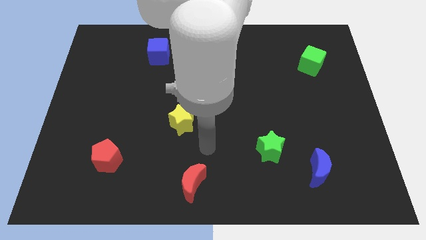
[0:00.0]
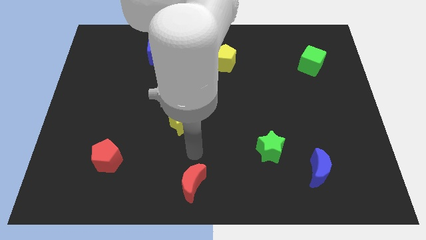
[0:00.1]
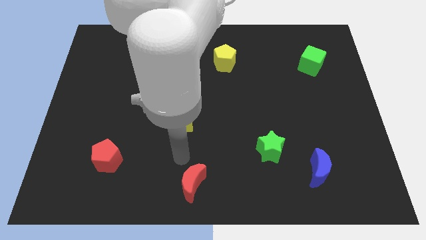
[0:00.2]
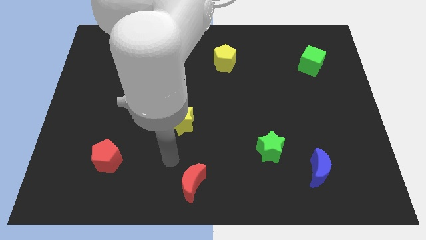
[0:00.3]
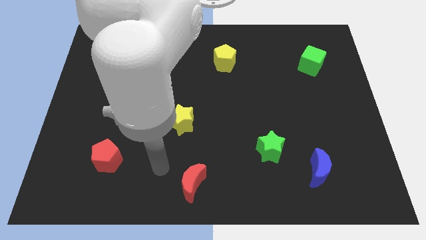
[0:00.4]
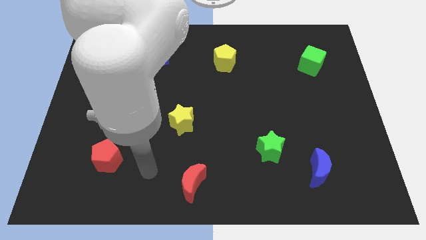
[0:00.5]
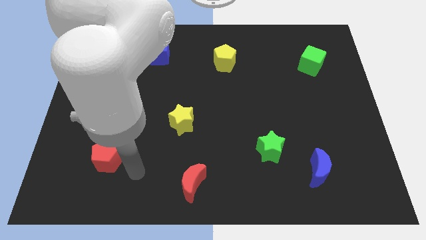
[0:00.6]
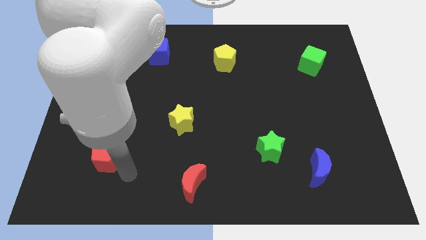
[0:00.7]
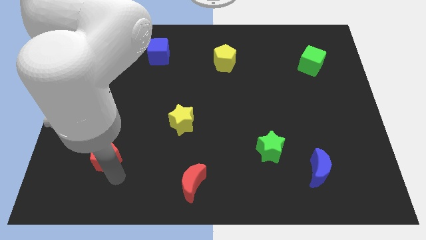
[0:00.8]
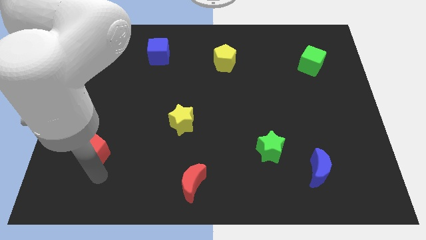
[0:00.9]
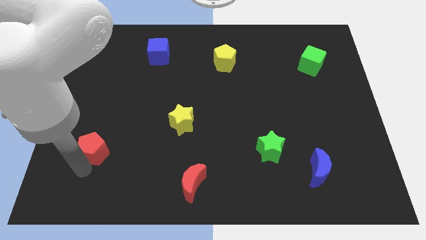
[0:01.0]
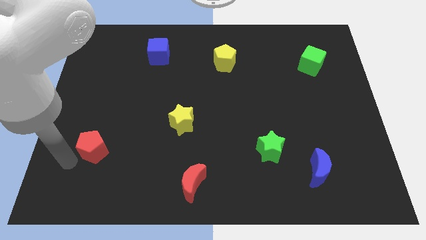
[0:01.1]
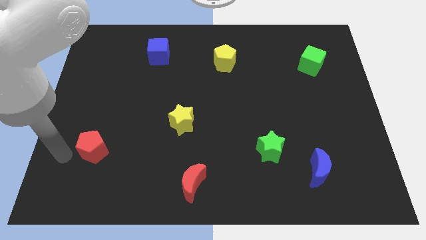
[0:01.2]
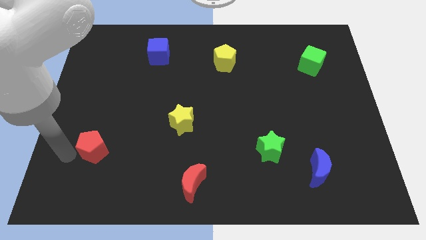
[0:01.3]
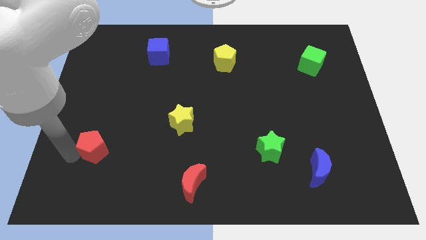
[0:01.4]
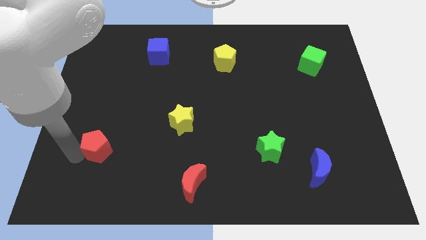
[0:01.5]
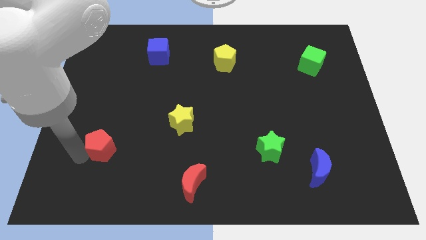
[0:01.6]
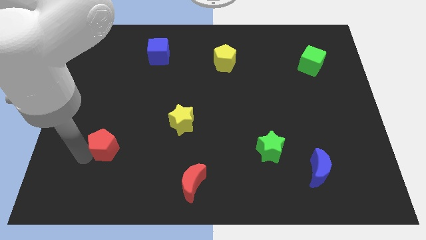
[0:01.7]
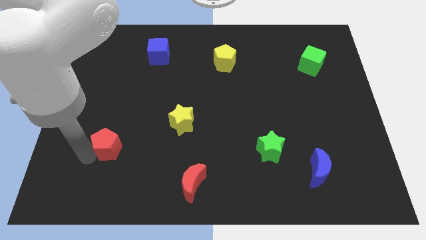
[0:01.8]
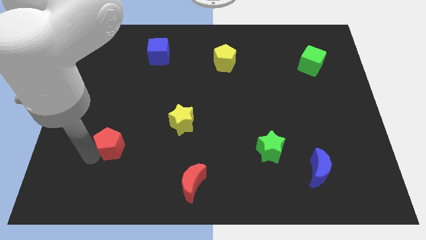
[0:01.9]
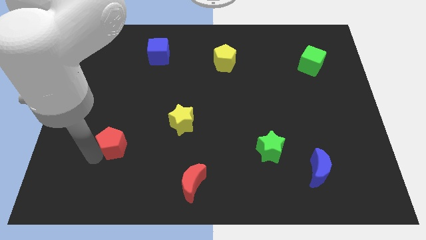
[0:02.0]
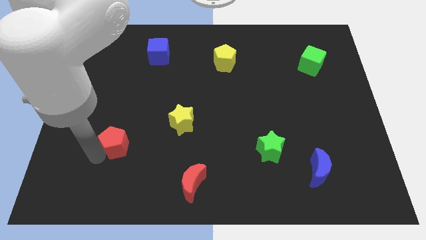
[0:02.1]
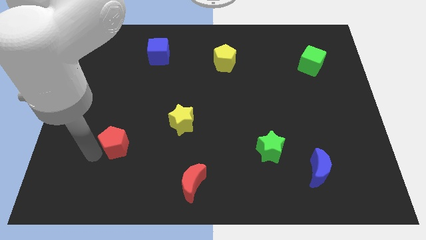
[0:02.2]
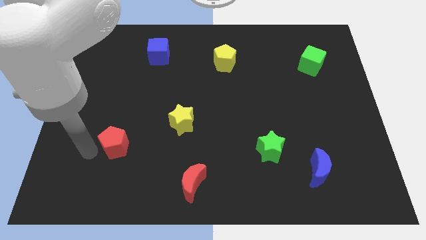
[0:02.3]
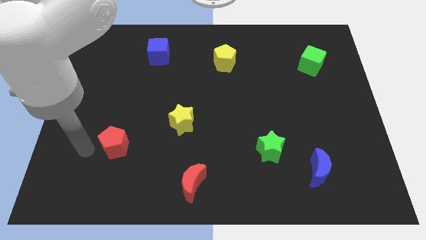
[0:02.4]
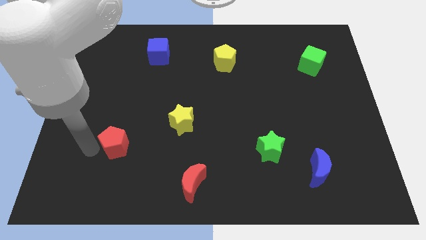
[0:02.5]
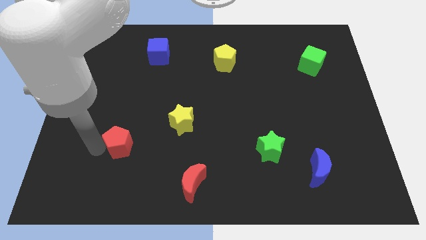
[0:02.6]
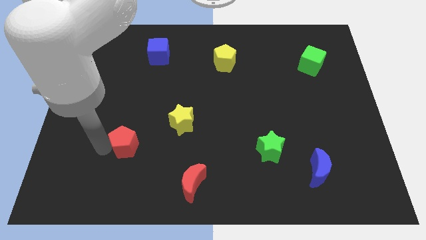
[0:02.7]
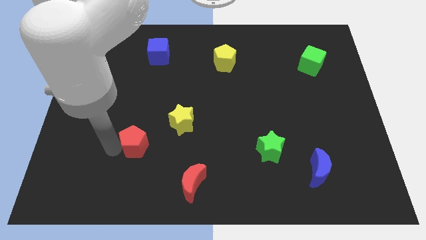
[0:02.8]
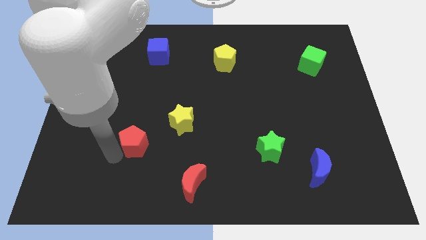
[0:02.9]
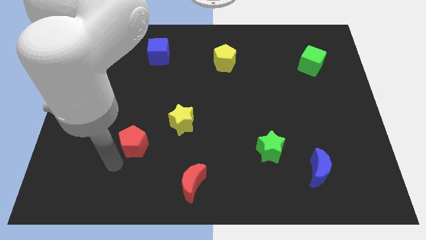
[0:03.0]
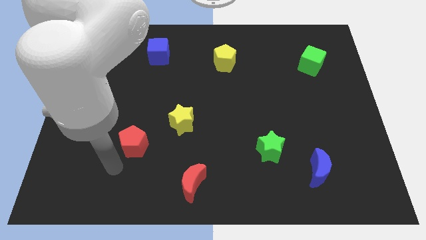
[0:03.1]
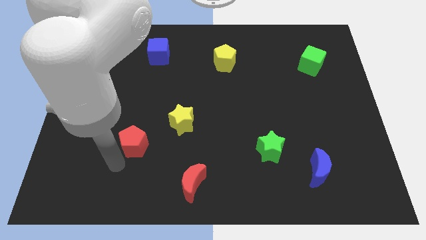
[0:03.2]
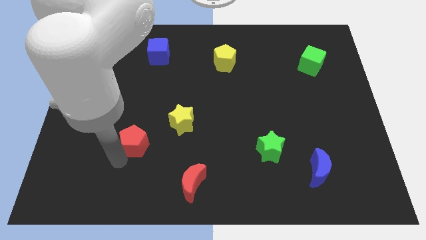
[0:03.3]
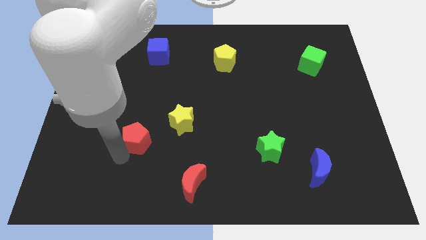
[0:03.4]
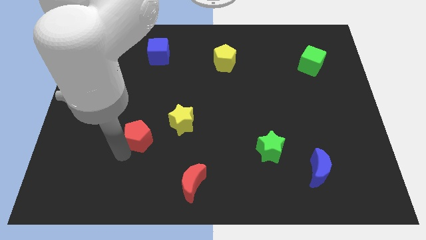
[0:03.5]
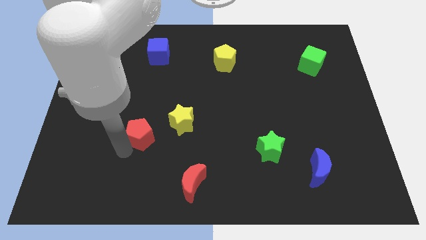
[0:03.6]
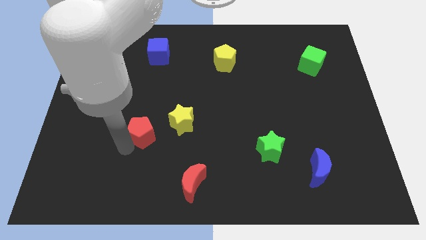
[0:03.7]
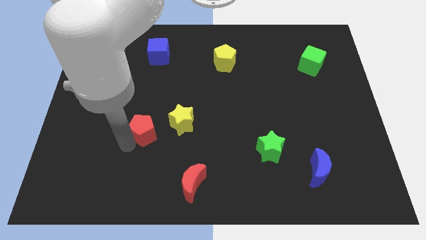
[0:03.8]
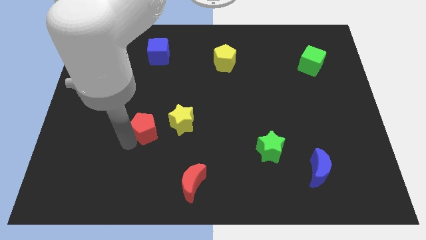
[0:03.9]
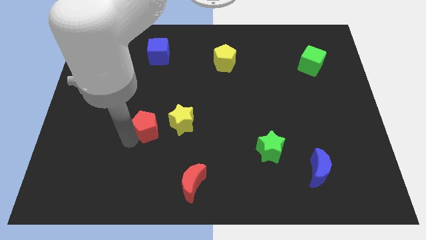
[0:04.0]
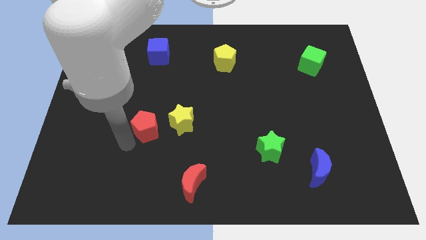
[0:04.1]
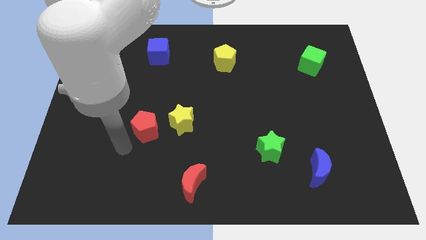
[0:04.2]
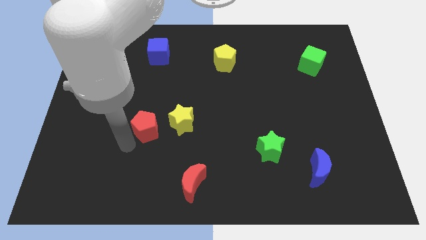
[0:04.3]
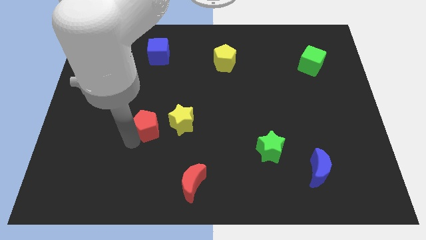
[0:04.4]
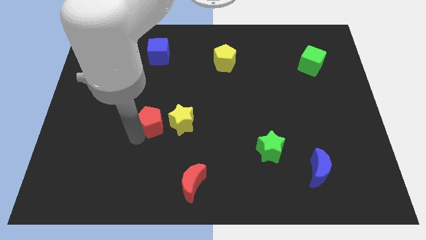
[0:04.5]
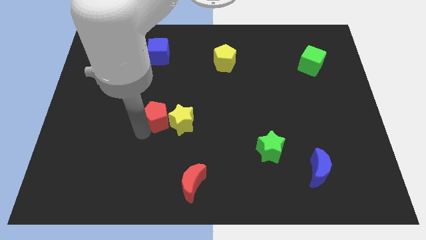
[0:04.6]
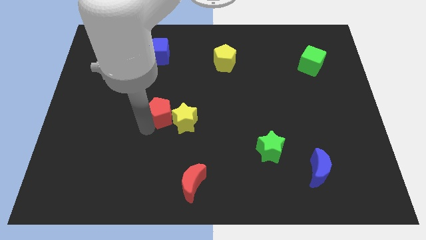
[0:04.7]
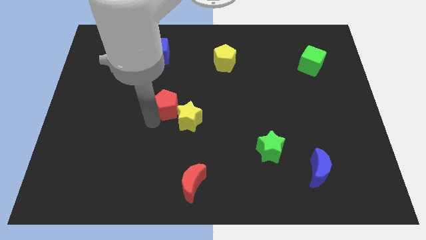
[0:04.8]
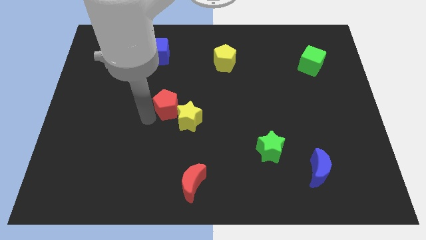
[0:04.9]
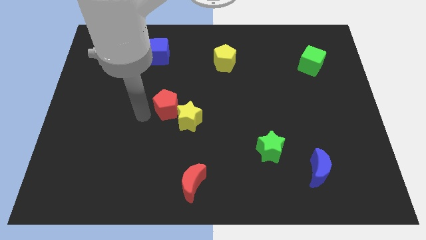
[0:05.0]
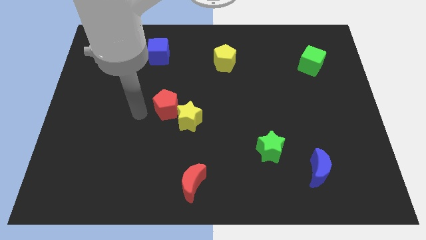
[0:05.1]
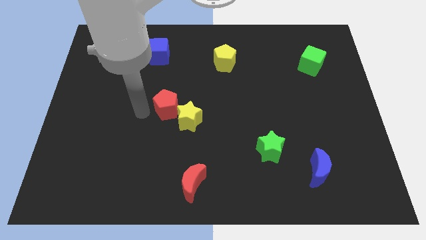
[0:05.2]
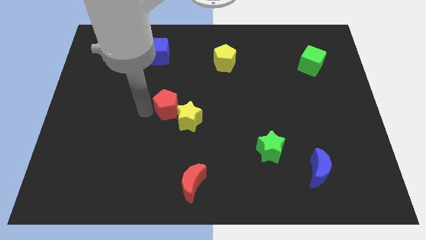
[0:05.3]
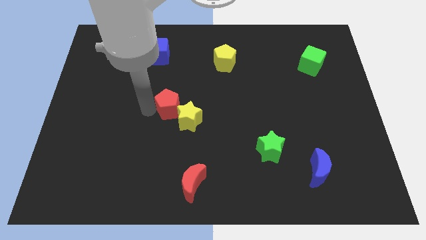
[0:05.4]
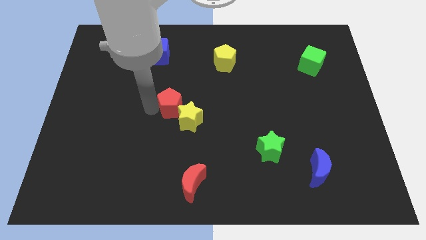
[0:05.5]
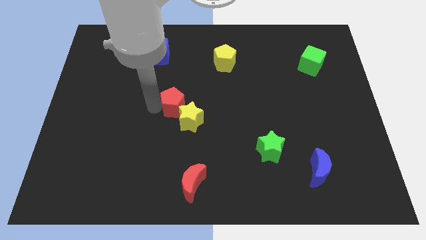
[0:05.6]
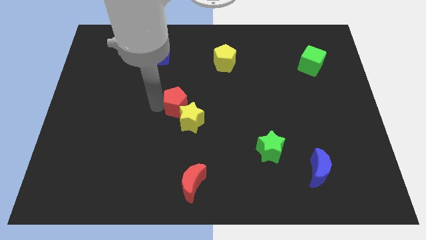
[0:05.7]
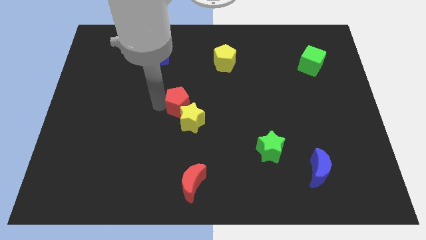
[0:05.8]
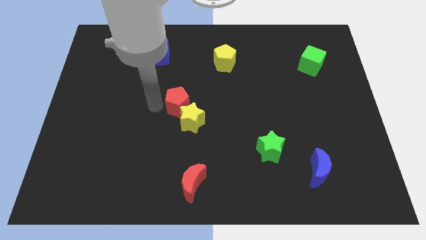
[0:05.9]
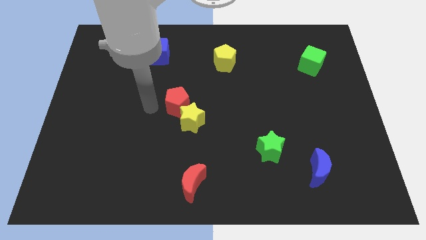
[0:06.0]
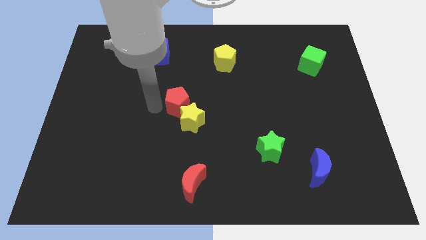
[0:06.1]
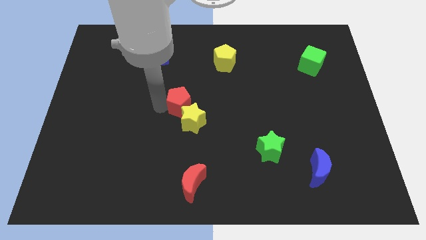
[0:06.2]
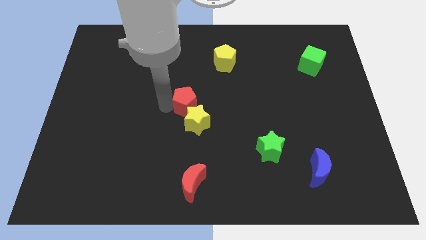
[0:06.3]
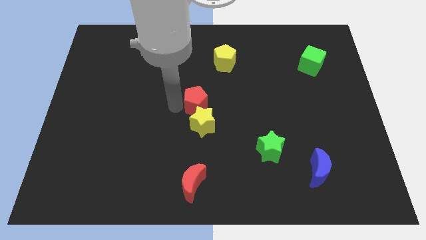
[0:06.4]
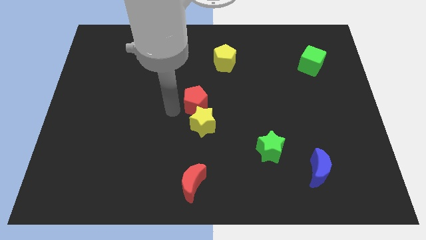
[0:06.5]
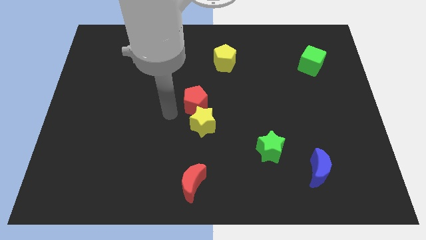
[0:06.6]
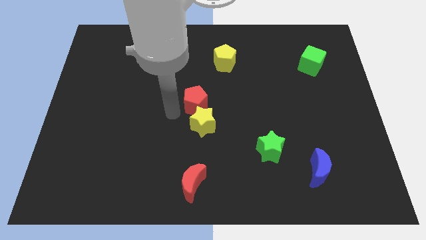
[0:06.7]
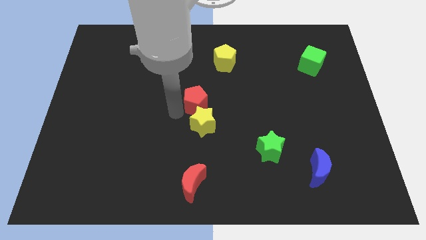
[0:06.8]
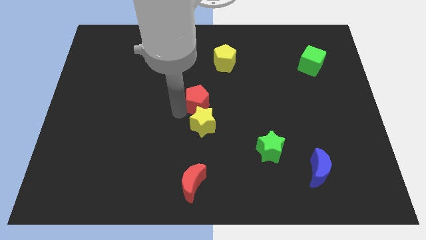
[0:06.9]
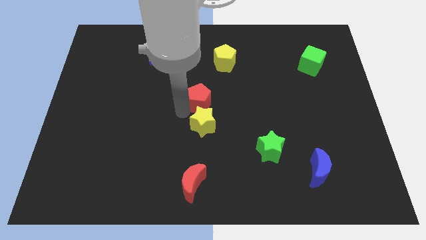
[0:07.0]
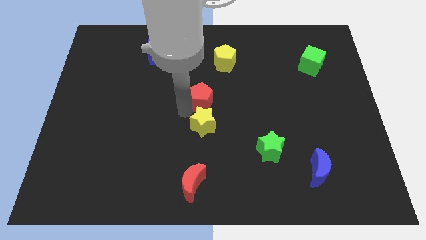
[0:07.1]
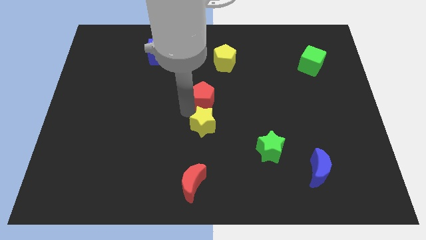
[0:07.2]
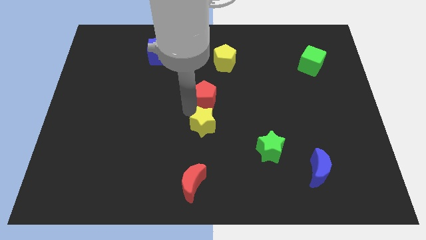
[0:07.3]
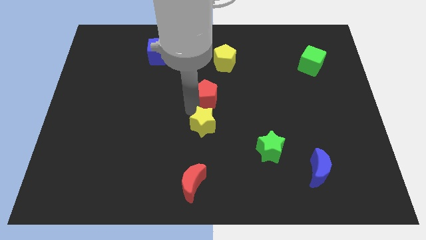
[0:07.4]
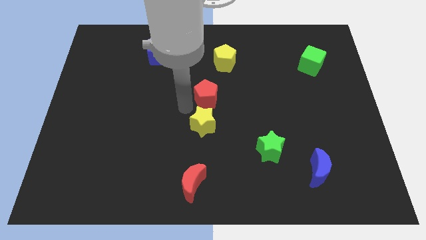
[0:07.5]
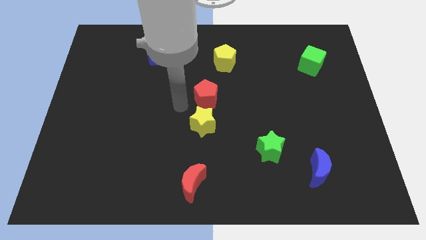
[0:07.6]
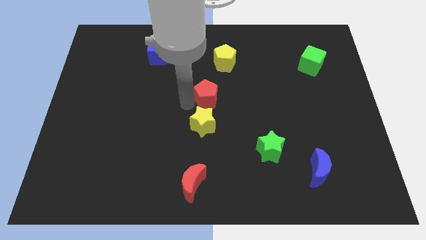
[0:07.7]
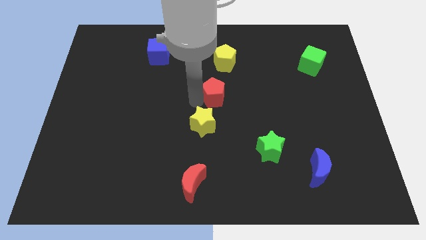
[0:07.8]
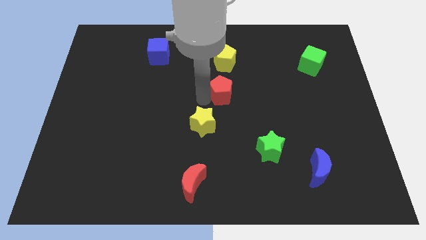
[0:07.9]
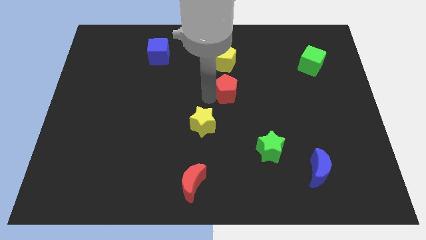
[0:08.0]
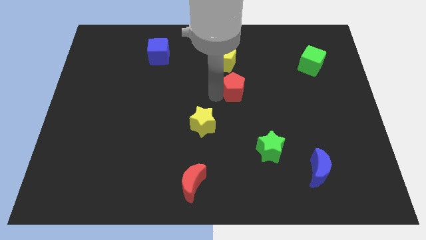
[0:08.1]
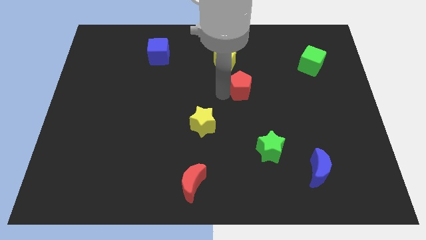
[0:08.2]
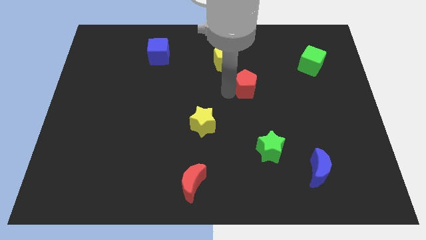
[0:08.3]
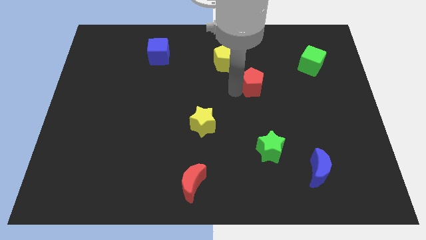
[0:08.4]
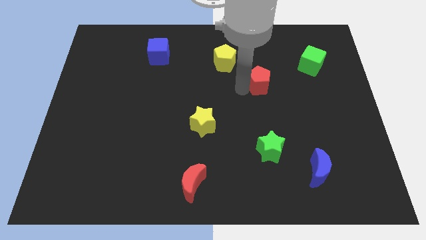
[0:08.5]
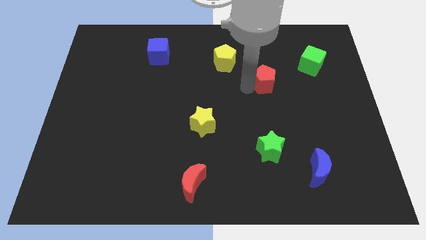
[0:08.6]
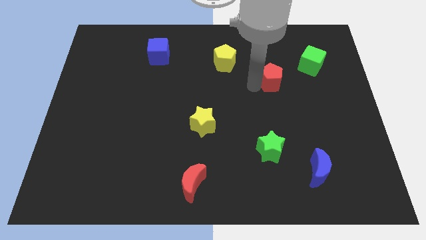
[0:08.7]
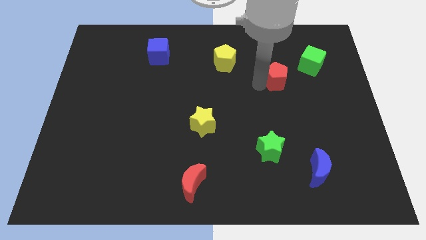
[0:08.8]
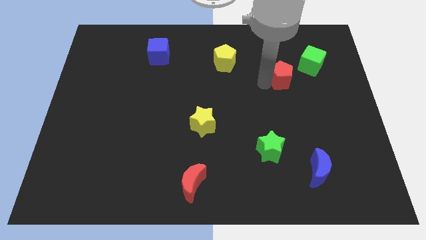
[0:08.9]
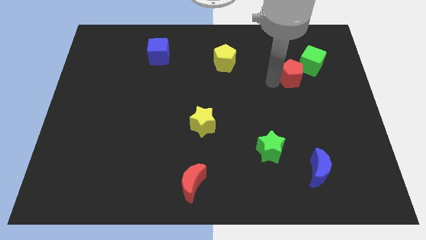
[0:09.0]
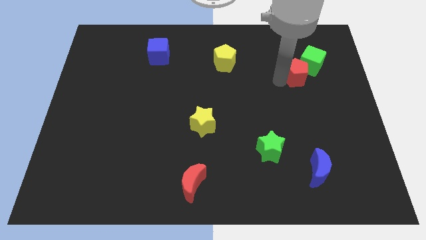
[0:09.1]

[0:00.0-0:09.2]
move the red pentagon towards the green cube
